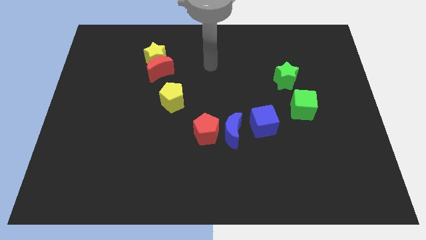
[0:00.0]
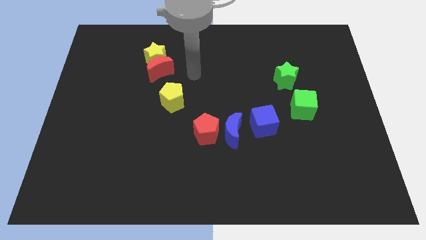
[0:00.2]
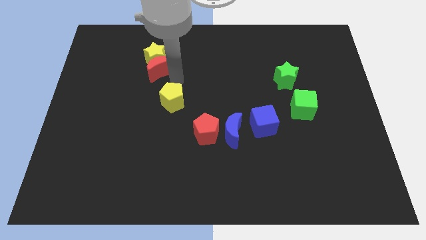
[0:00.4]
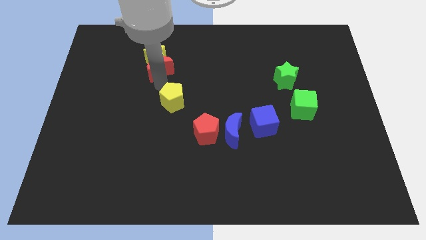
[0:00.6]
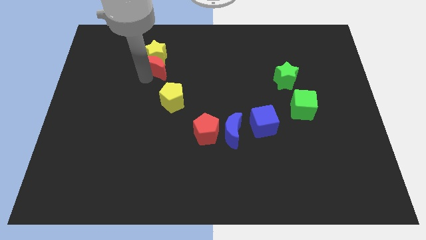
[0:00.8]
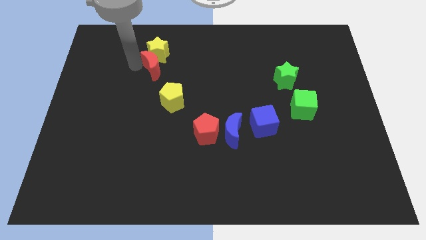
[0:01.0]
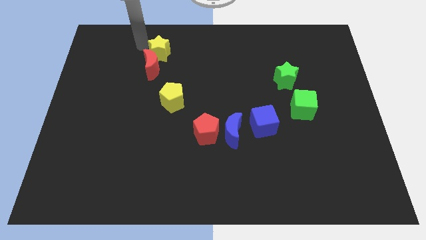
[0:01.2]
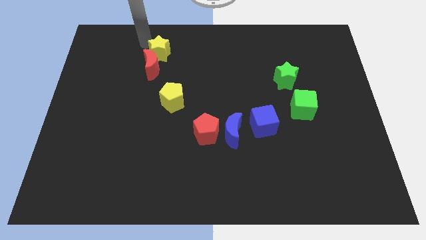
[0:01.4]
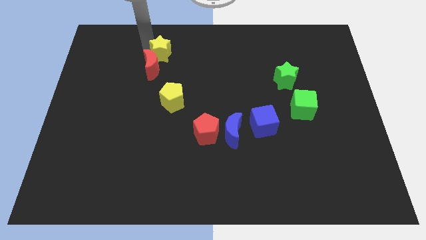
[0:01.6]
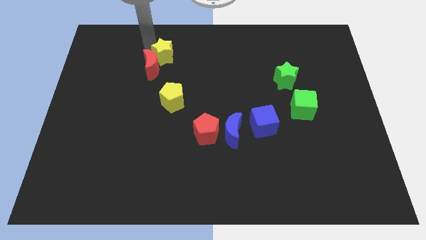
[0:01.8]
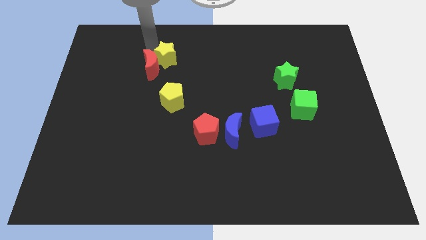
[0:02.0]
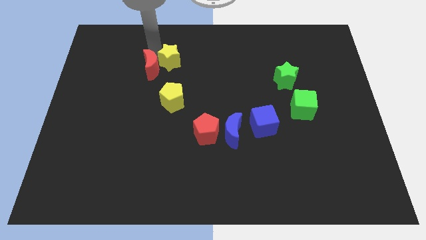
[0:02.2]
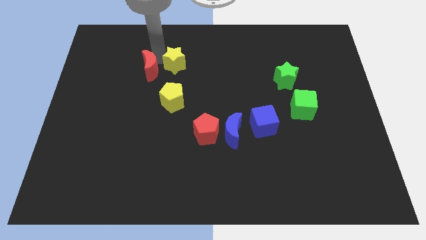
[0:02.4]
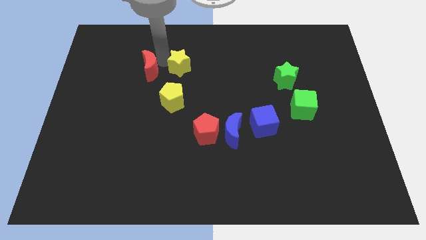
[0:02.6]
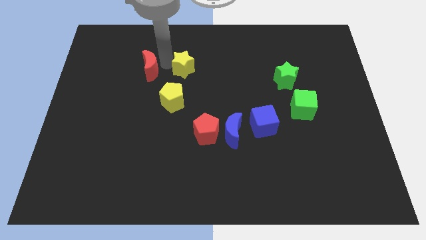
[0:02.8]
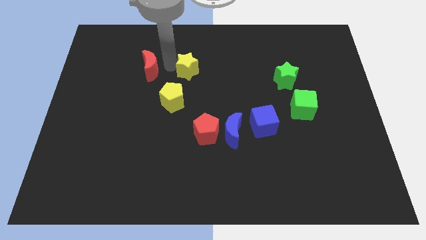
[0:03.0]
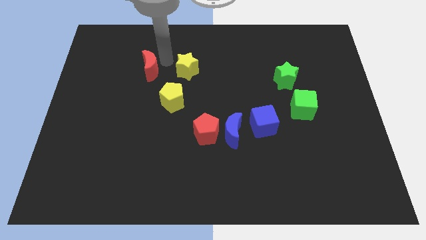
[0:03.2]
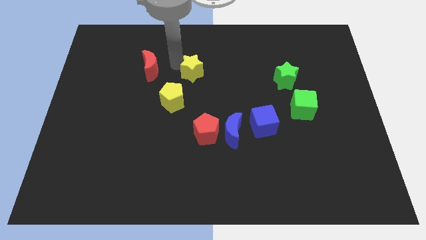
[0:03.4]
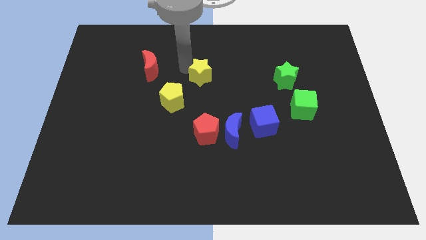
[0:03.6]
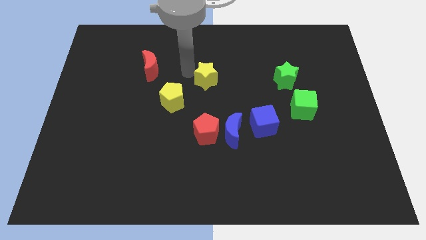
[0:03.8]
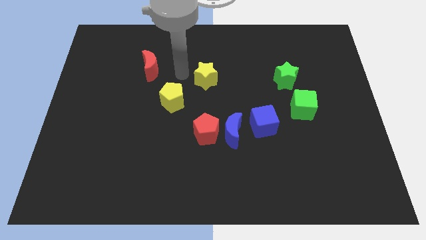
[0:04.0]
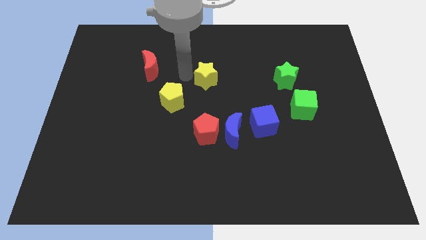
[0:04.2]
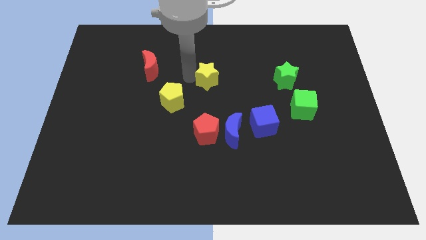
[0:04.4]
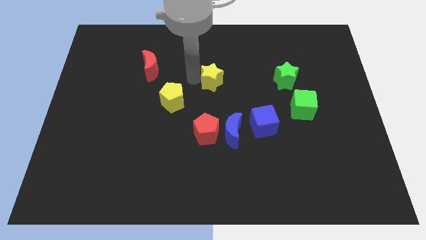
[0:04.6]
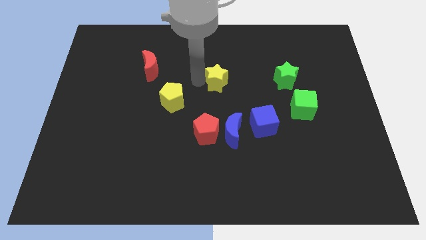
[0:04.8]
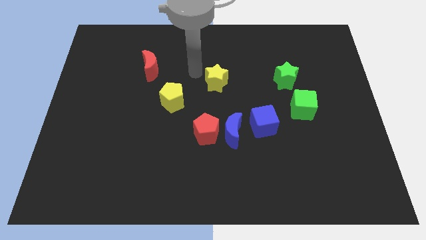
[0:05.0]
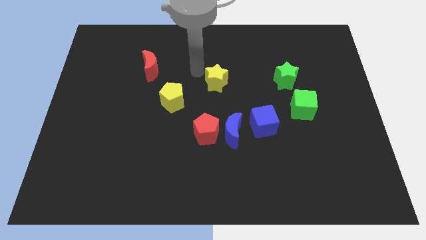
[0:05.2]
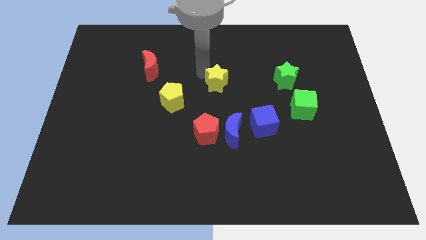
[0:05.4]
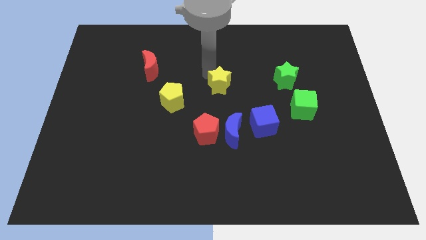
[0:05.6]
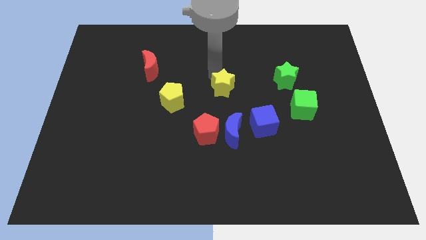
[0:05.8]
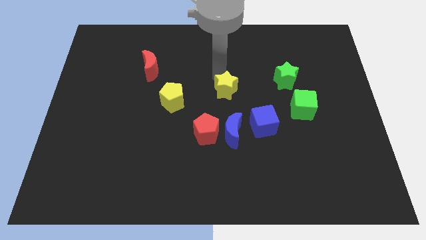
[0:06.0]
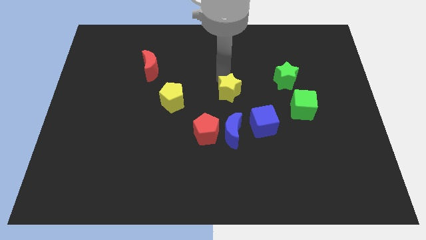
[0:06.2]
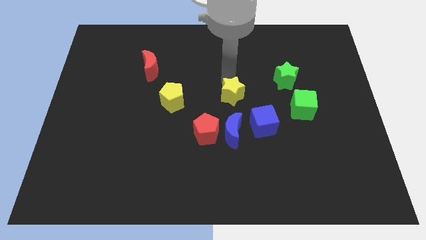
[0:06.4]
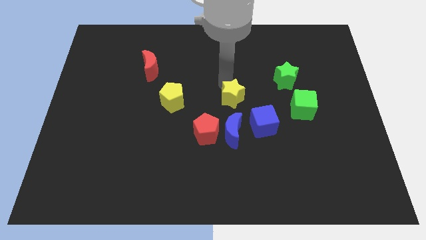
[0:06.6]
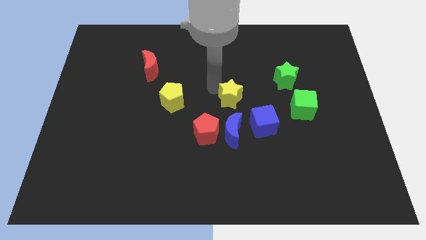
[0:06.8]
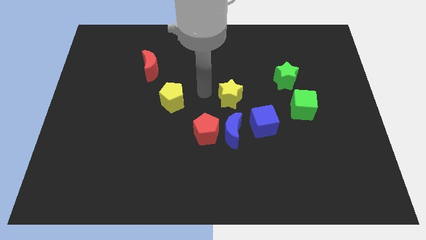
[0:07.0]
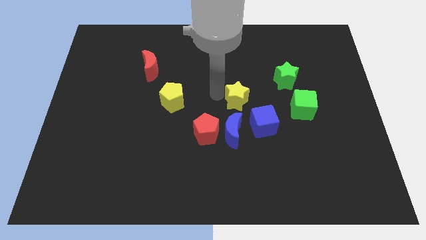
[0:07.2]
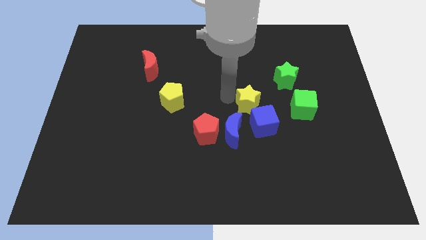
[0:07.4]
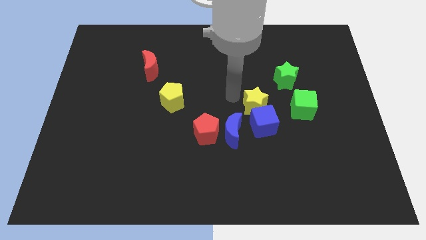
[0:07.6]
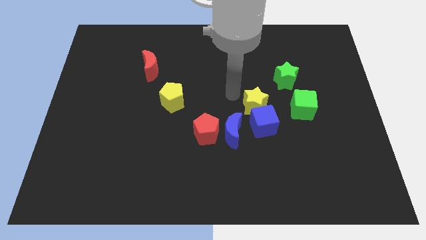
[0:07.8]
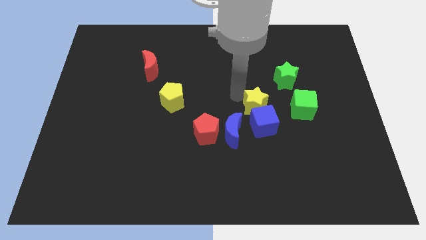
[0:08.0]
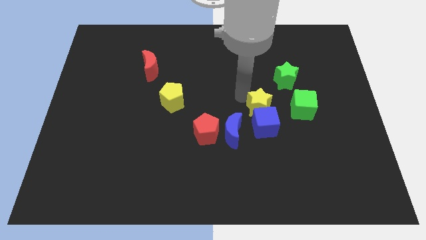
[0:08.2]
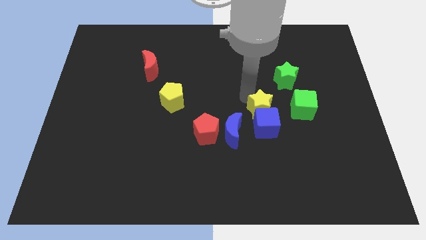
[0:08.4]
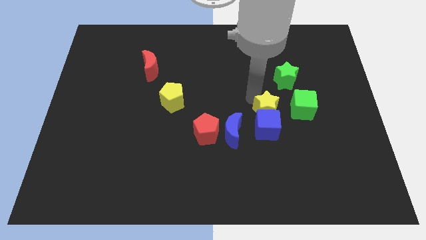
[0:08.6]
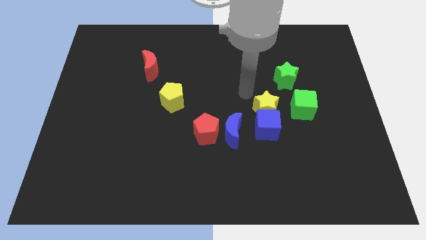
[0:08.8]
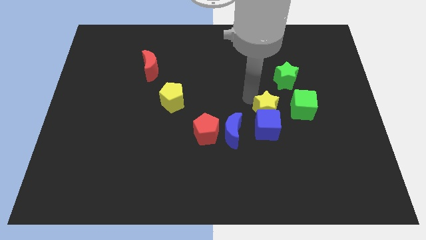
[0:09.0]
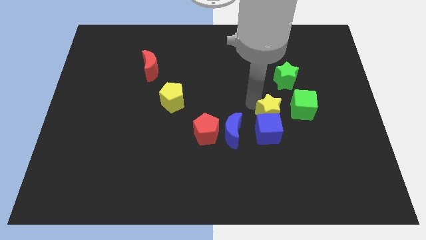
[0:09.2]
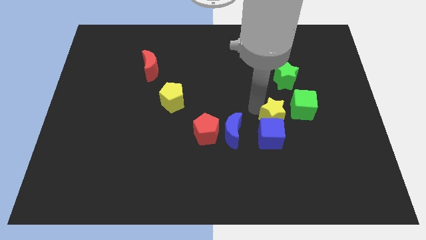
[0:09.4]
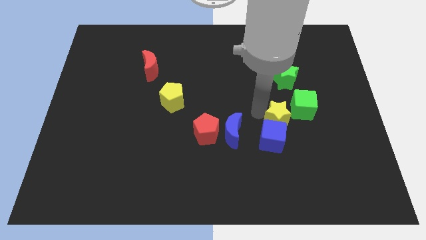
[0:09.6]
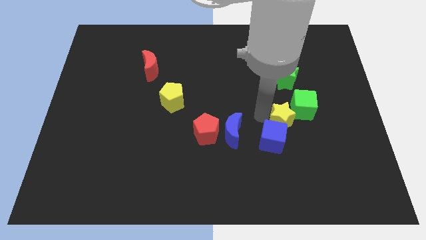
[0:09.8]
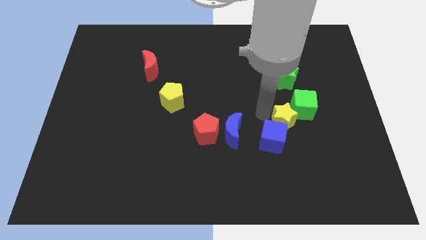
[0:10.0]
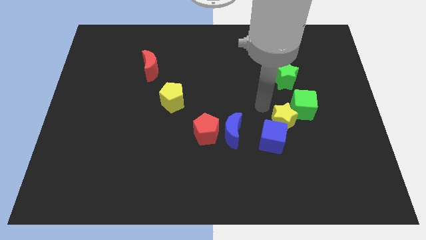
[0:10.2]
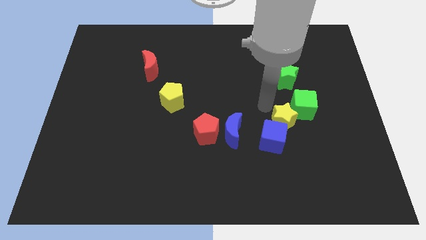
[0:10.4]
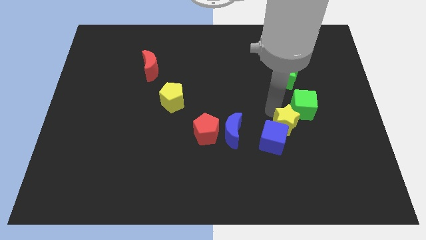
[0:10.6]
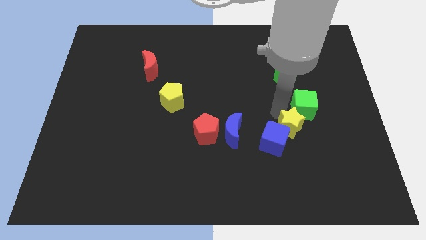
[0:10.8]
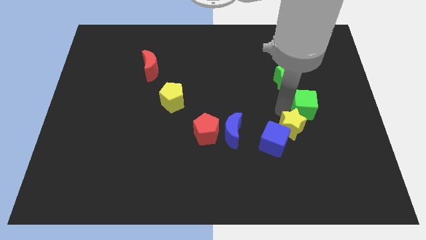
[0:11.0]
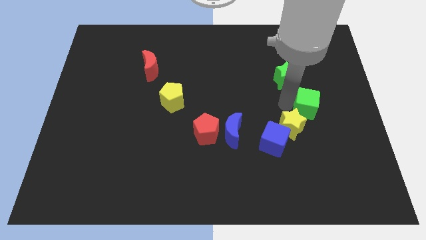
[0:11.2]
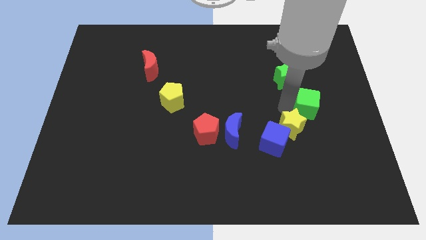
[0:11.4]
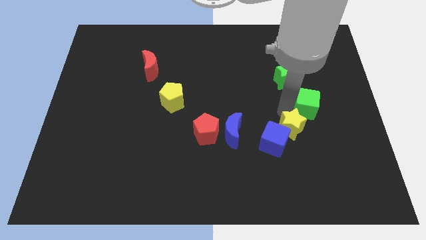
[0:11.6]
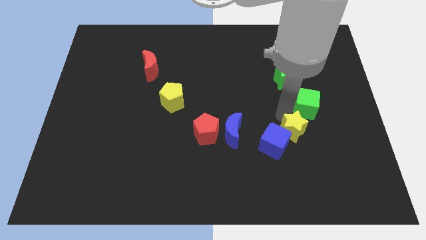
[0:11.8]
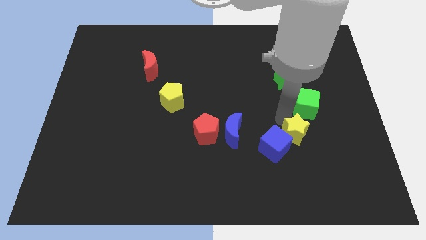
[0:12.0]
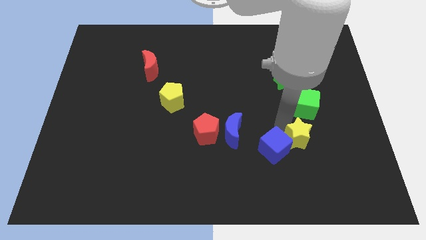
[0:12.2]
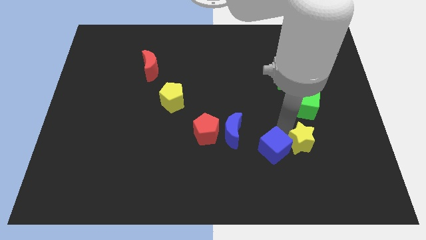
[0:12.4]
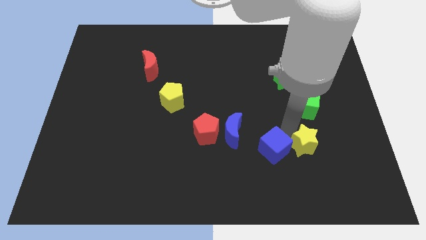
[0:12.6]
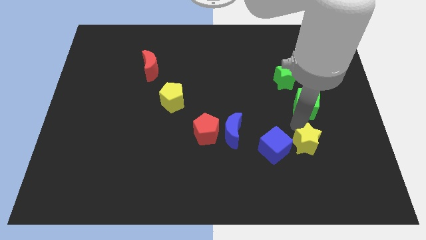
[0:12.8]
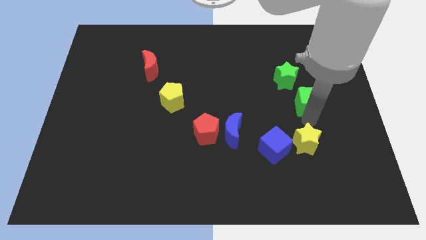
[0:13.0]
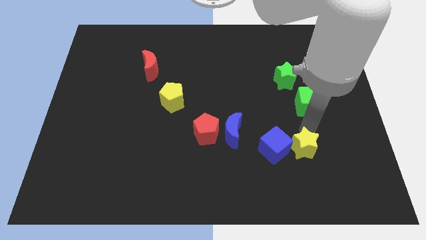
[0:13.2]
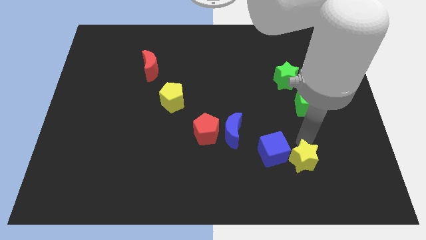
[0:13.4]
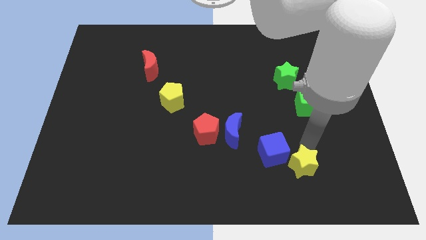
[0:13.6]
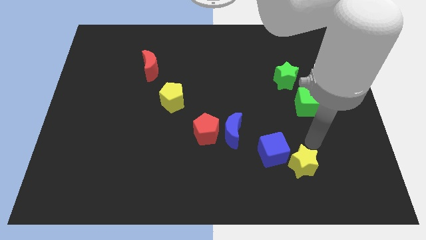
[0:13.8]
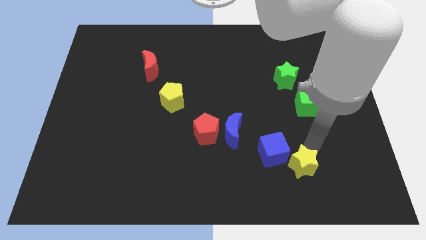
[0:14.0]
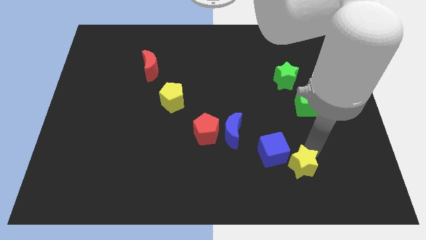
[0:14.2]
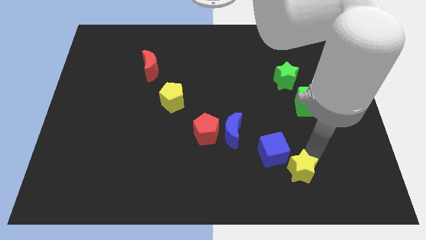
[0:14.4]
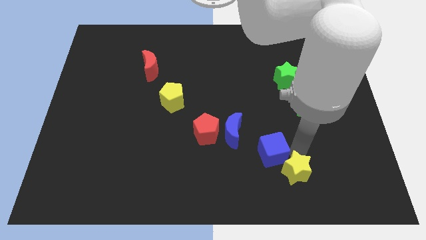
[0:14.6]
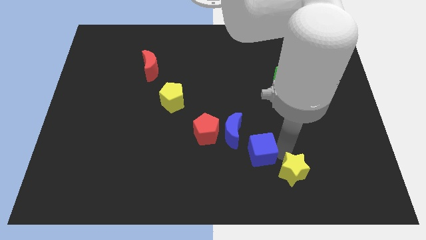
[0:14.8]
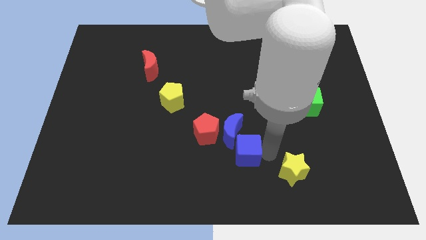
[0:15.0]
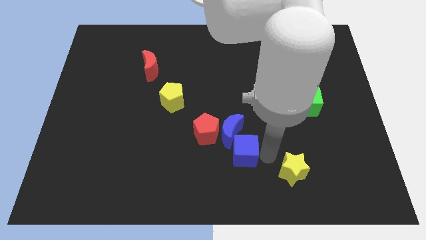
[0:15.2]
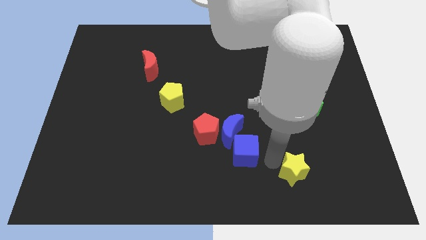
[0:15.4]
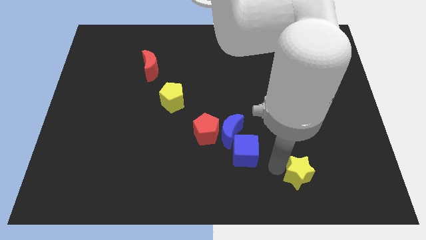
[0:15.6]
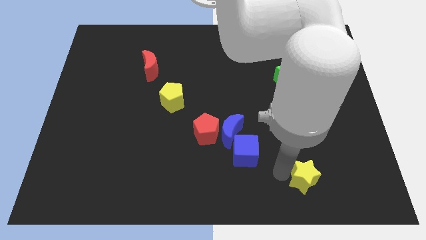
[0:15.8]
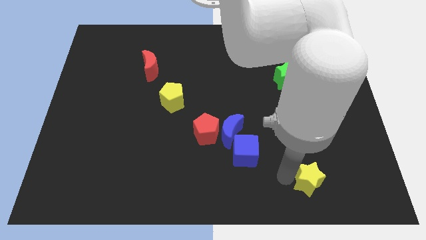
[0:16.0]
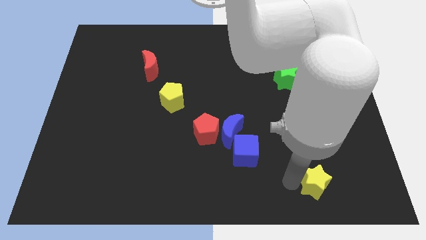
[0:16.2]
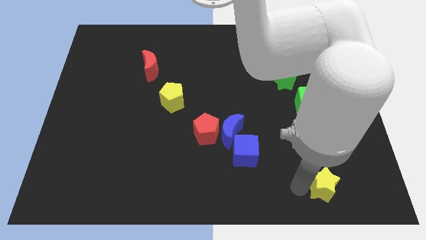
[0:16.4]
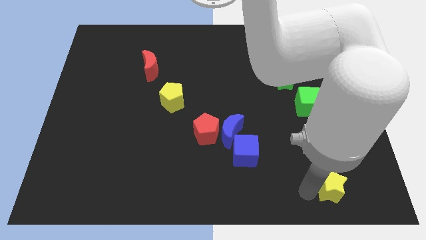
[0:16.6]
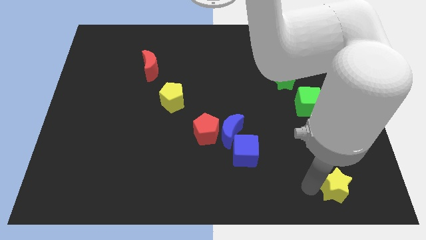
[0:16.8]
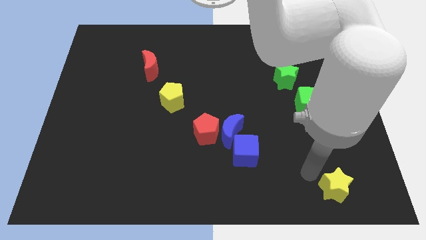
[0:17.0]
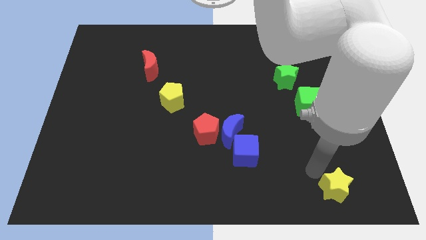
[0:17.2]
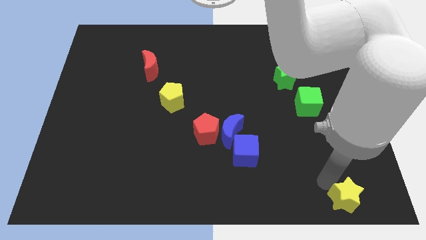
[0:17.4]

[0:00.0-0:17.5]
slide the yellow star to the bottom right
